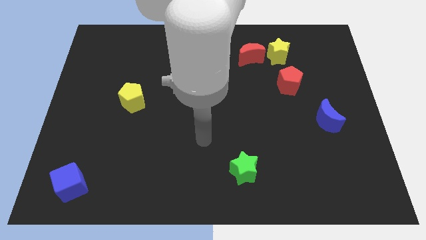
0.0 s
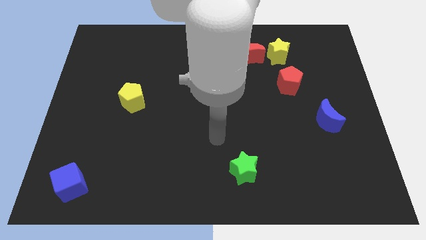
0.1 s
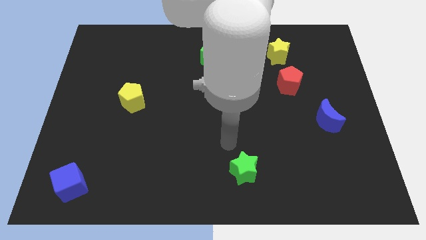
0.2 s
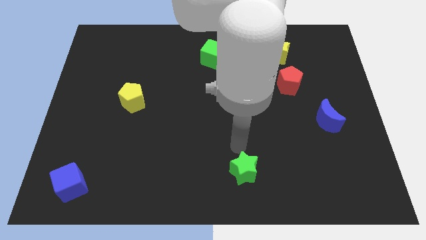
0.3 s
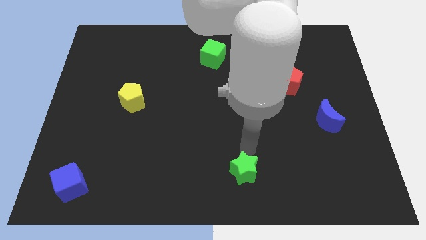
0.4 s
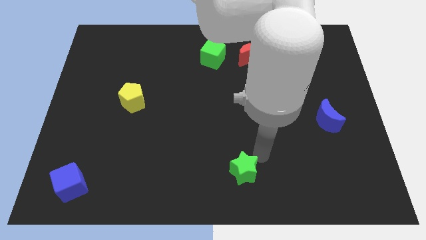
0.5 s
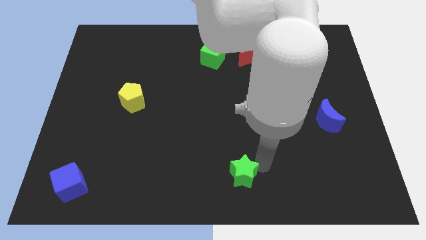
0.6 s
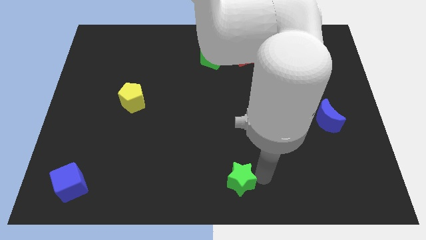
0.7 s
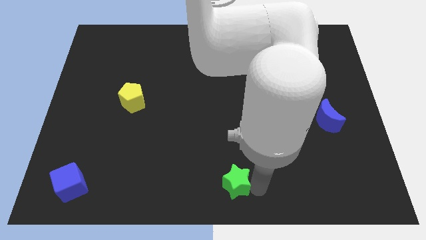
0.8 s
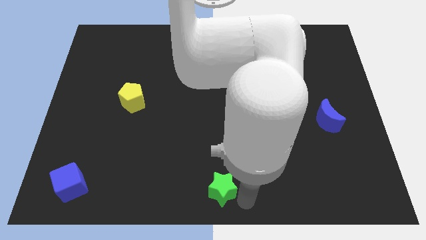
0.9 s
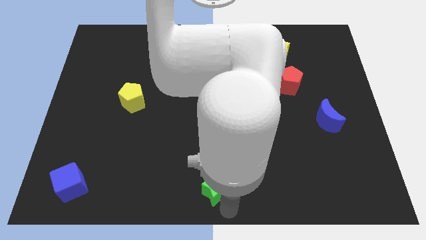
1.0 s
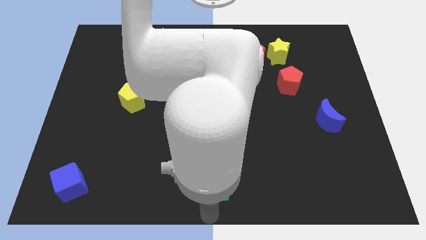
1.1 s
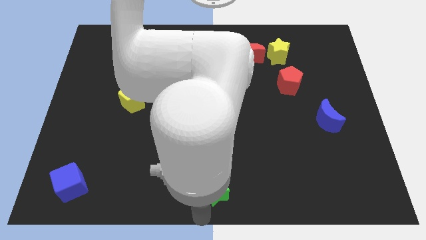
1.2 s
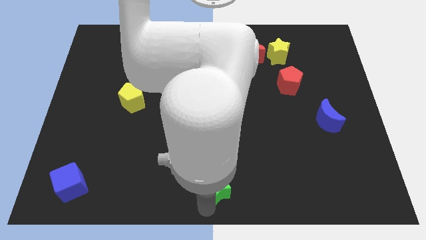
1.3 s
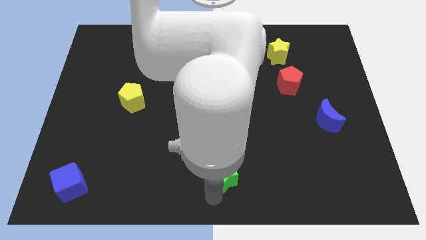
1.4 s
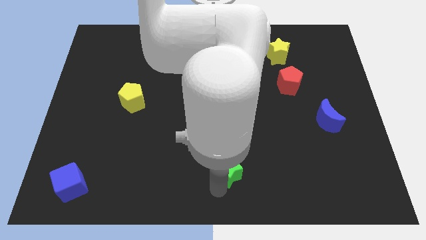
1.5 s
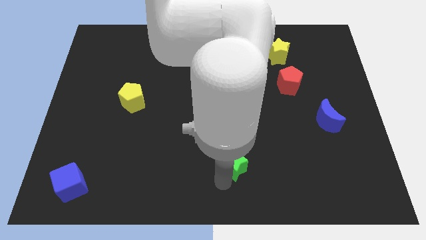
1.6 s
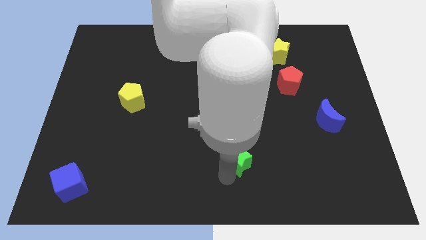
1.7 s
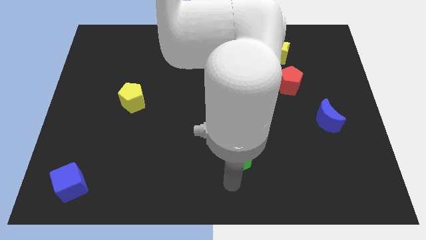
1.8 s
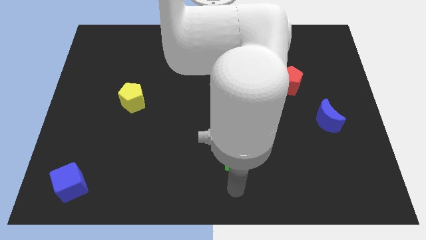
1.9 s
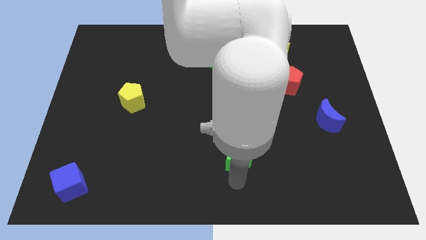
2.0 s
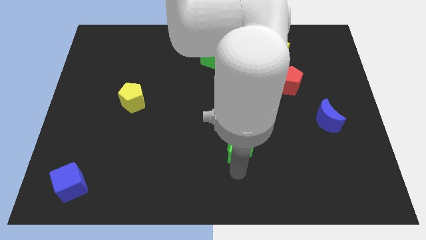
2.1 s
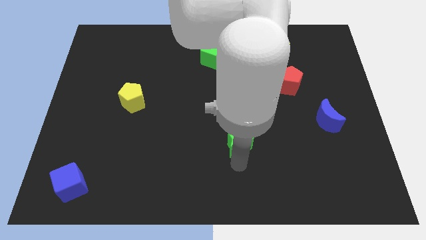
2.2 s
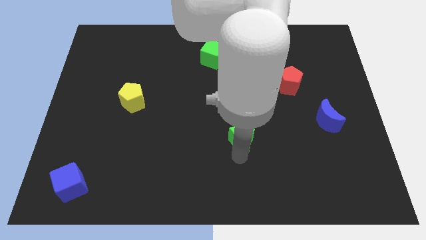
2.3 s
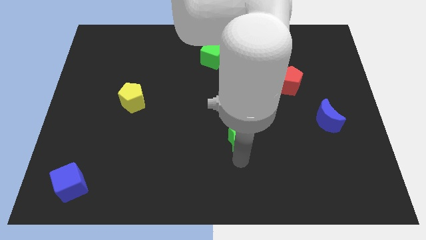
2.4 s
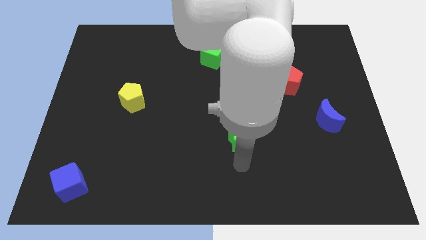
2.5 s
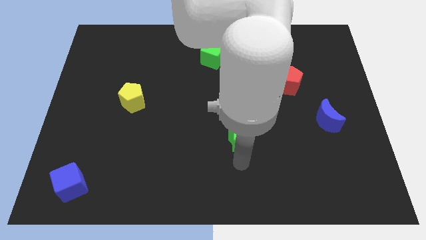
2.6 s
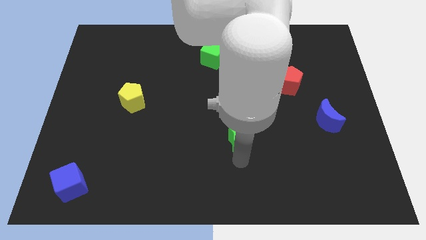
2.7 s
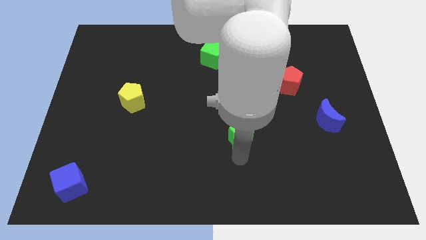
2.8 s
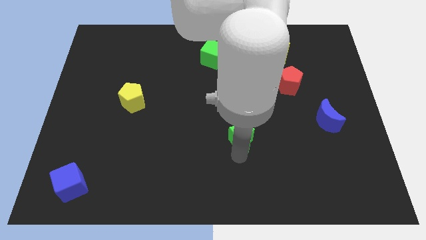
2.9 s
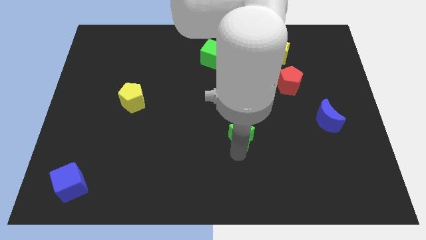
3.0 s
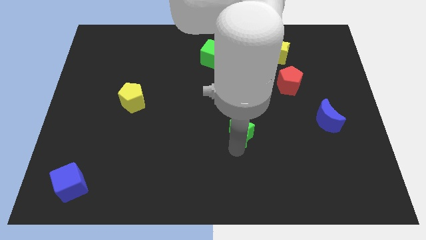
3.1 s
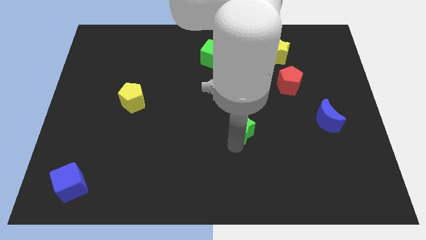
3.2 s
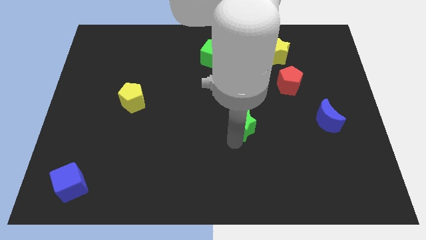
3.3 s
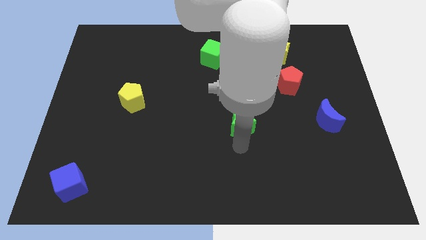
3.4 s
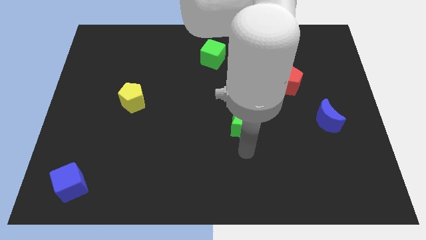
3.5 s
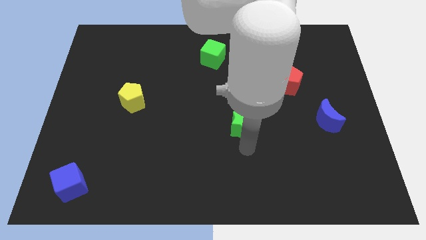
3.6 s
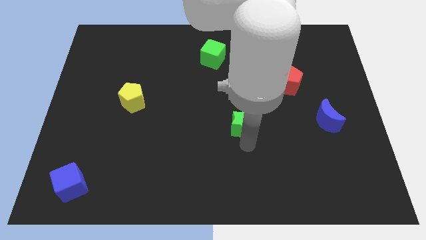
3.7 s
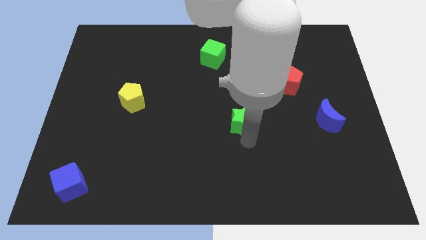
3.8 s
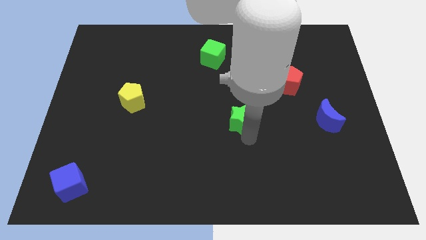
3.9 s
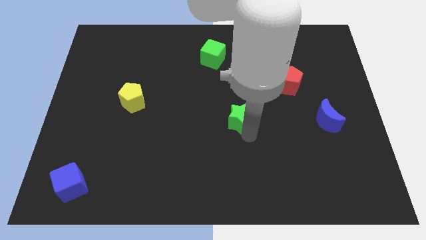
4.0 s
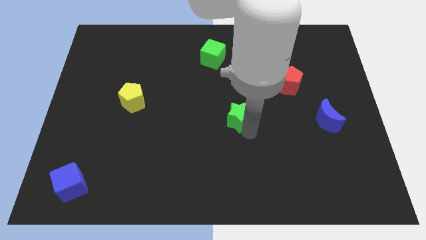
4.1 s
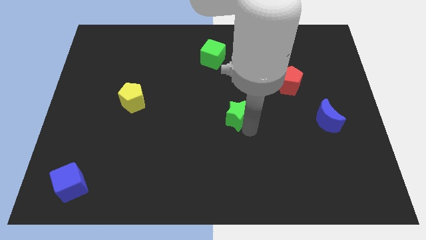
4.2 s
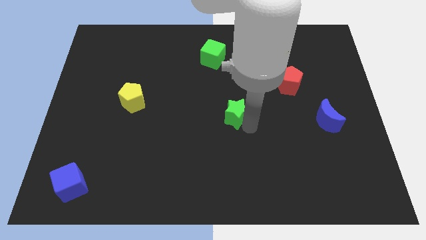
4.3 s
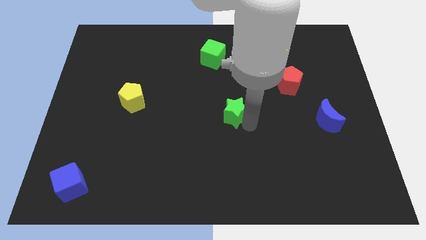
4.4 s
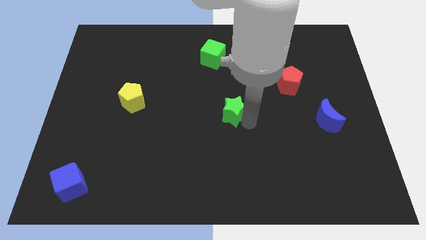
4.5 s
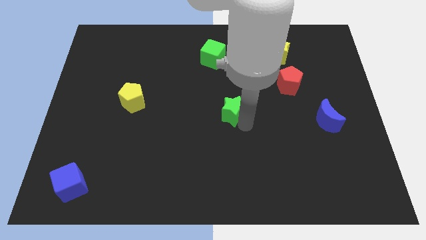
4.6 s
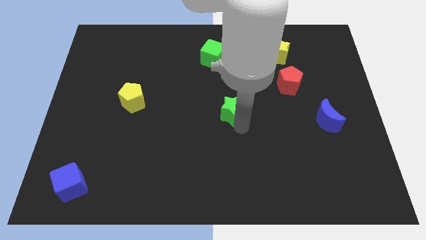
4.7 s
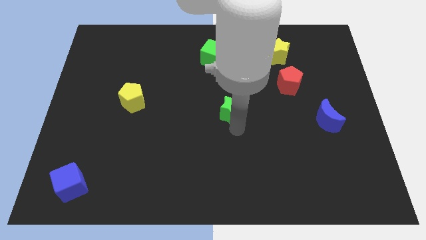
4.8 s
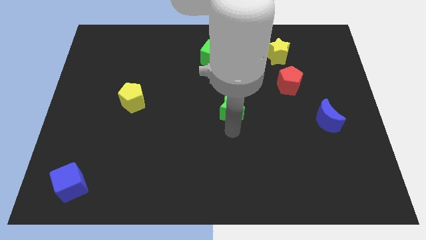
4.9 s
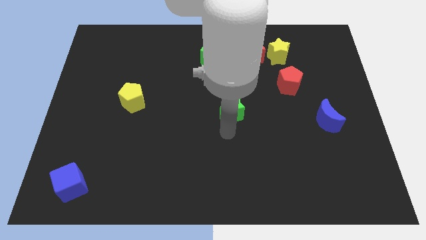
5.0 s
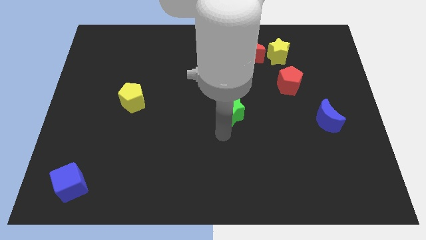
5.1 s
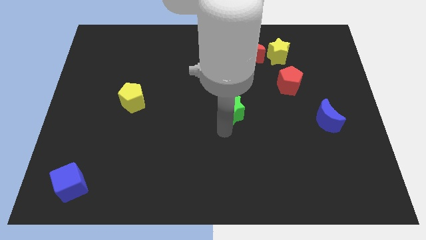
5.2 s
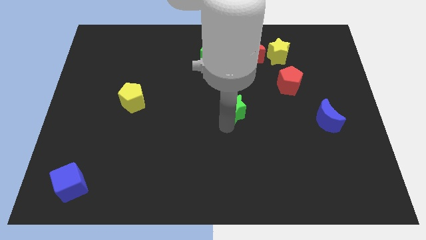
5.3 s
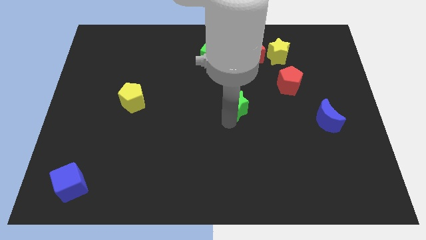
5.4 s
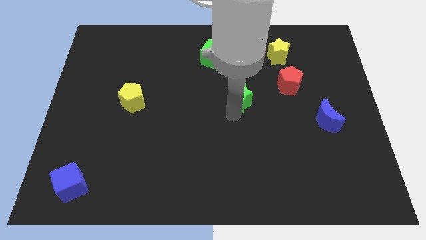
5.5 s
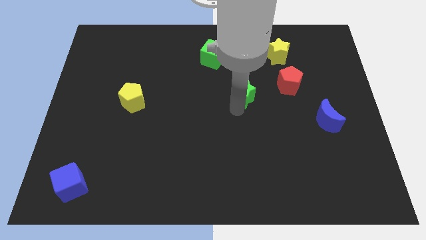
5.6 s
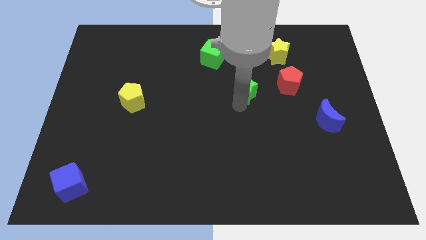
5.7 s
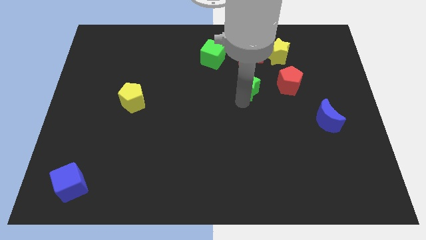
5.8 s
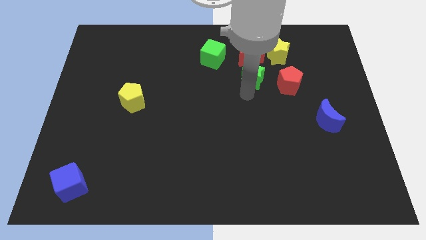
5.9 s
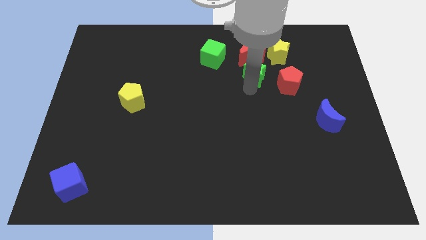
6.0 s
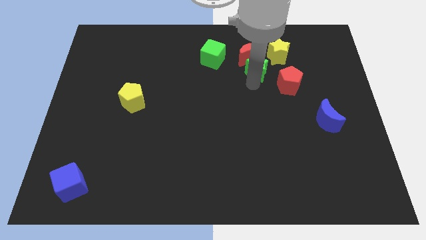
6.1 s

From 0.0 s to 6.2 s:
move the green star close to the red moon
